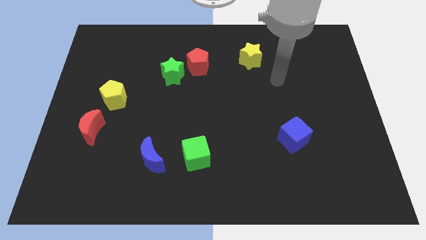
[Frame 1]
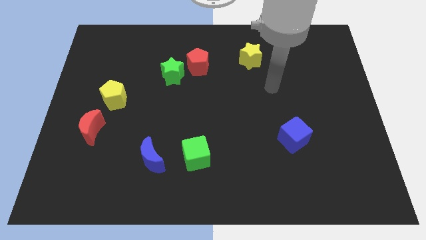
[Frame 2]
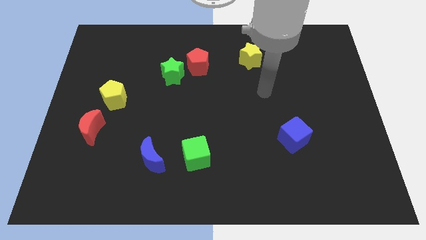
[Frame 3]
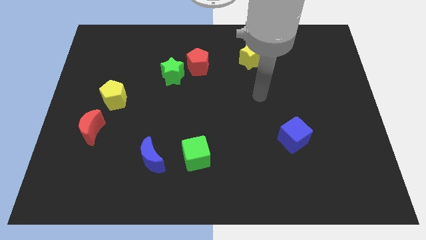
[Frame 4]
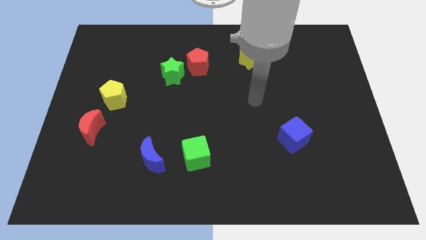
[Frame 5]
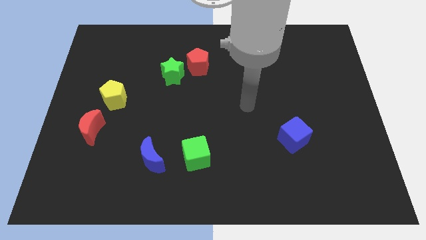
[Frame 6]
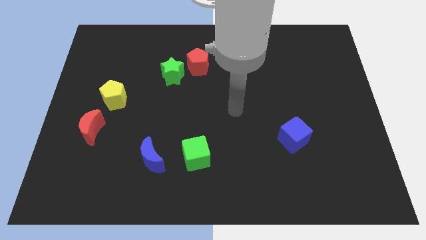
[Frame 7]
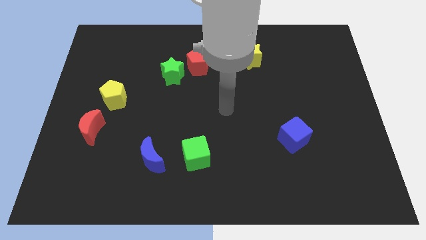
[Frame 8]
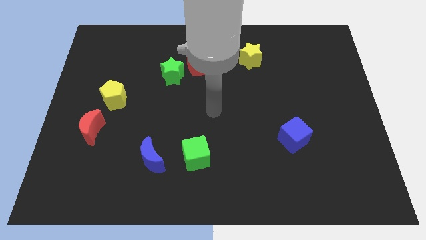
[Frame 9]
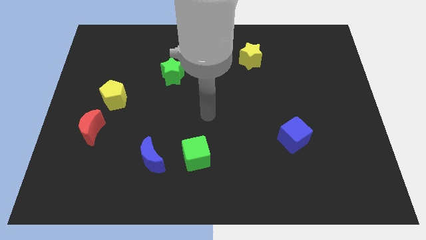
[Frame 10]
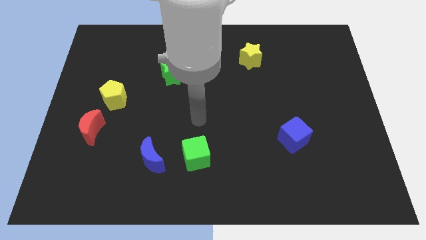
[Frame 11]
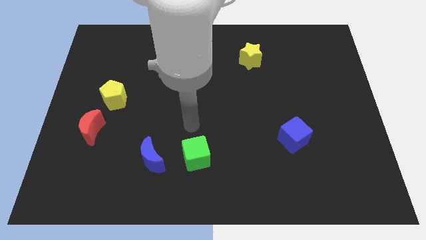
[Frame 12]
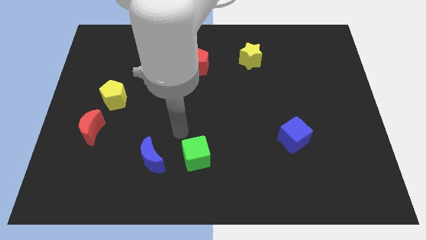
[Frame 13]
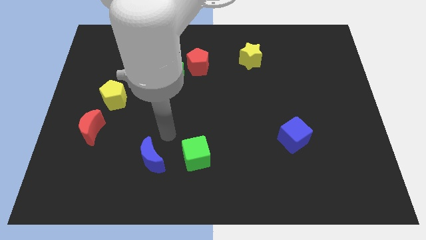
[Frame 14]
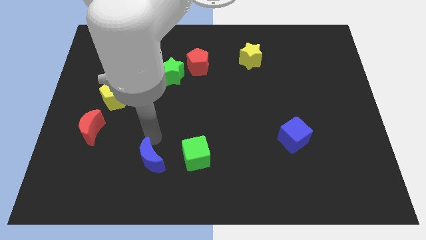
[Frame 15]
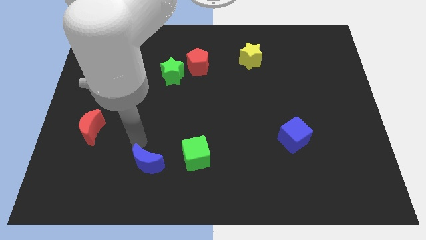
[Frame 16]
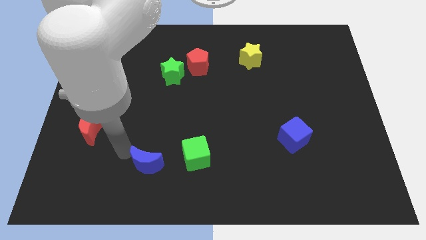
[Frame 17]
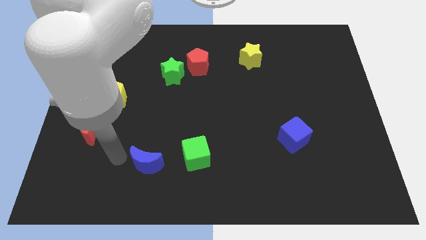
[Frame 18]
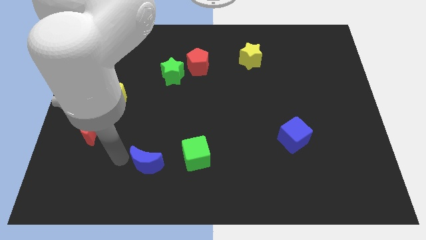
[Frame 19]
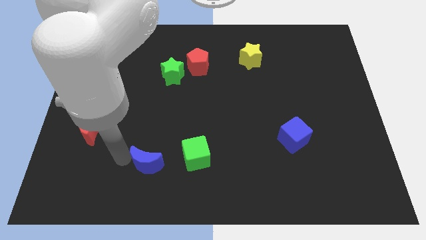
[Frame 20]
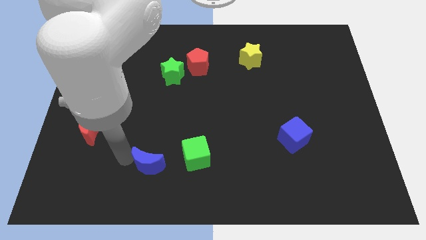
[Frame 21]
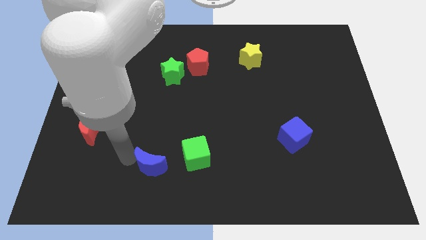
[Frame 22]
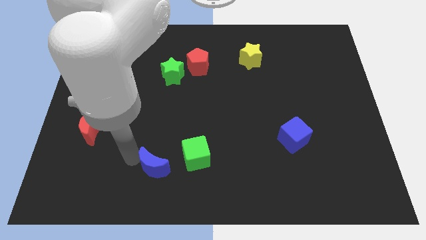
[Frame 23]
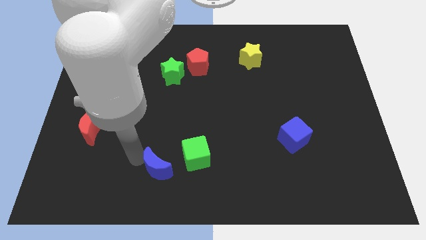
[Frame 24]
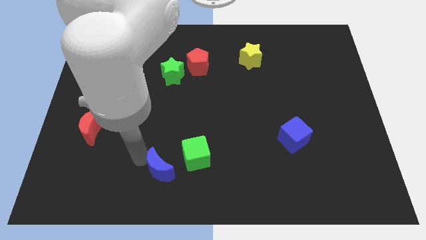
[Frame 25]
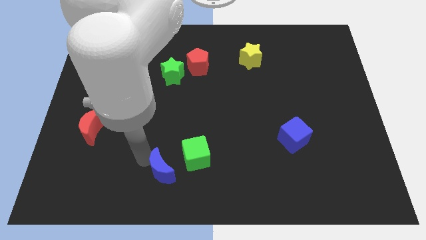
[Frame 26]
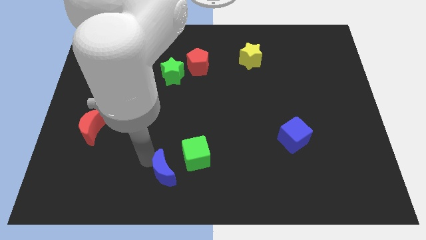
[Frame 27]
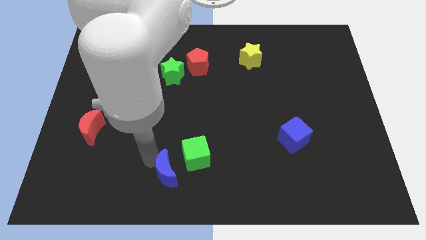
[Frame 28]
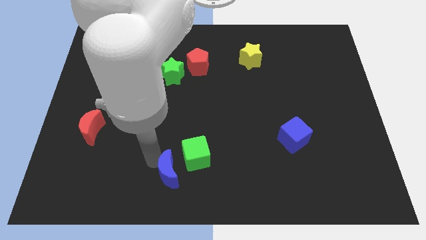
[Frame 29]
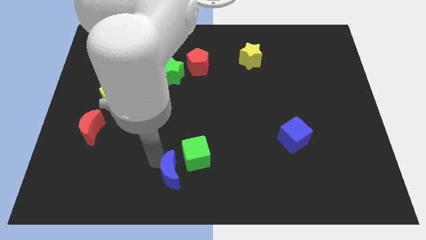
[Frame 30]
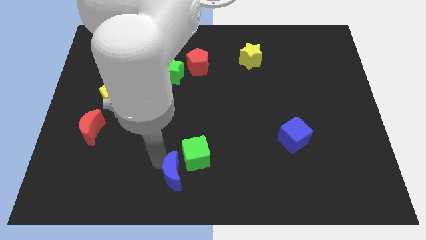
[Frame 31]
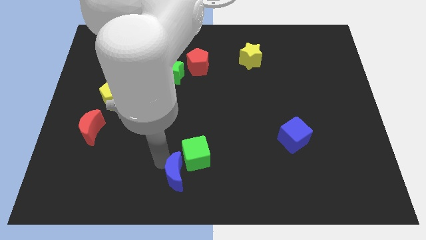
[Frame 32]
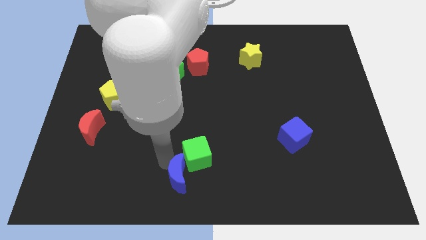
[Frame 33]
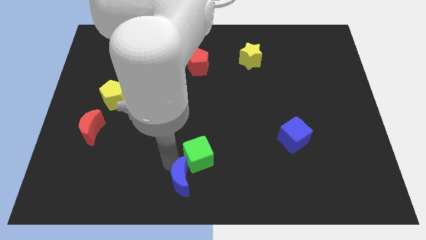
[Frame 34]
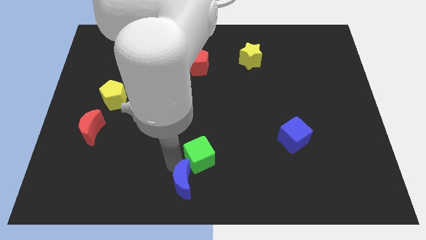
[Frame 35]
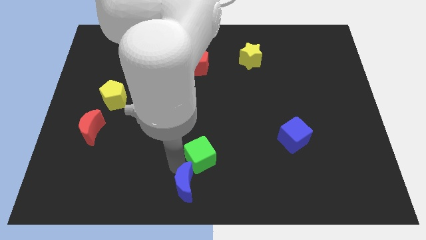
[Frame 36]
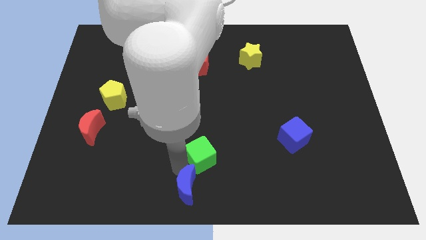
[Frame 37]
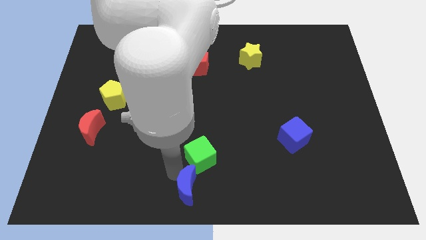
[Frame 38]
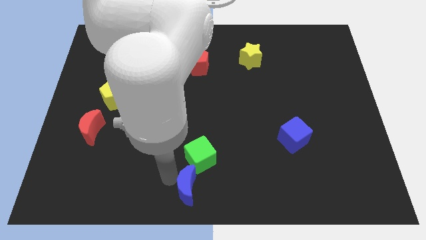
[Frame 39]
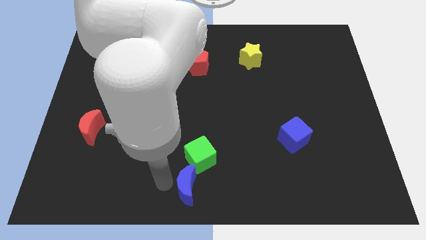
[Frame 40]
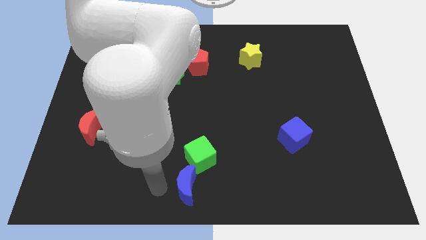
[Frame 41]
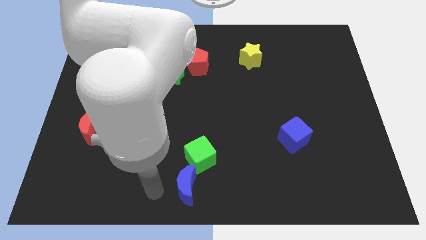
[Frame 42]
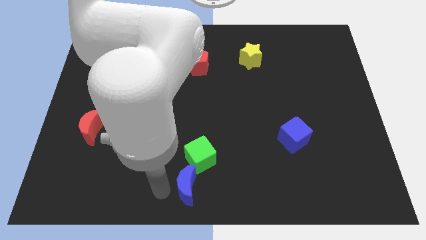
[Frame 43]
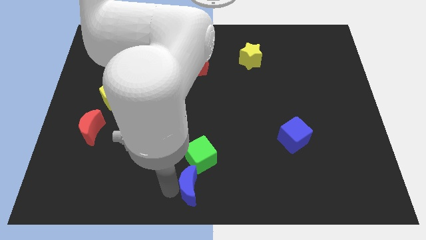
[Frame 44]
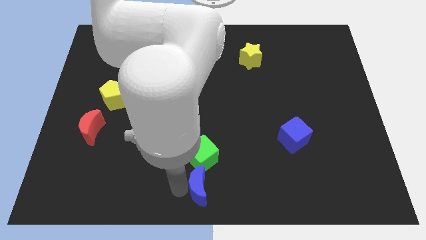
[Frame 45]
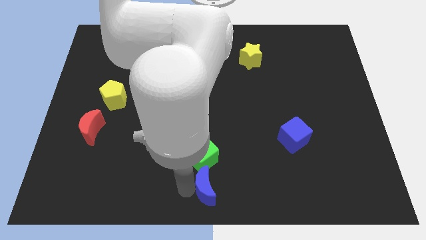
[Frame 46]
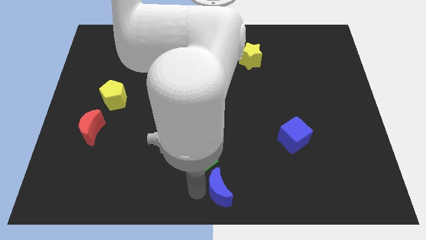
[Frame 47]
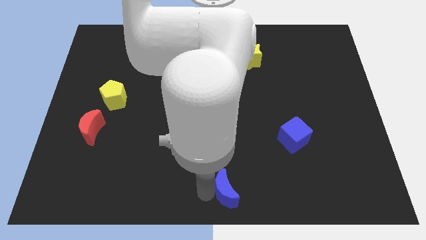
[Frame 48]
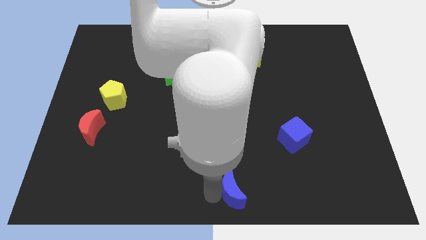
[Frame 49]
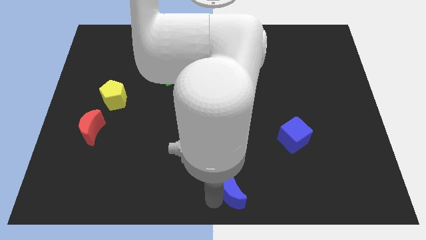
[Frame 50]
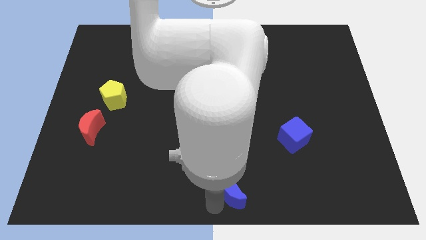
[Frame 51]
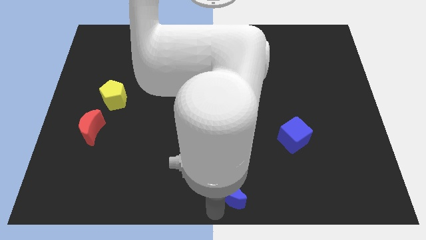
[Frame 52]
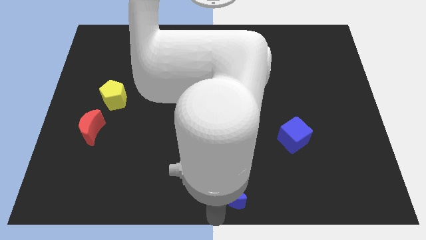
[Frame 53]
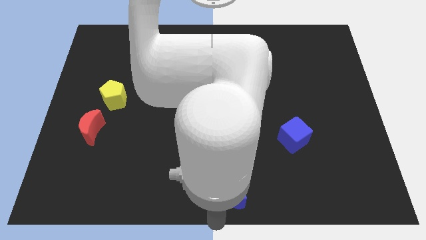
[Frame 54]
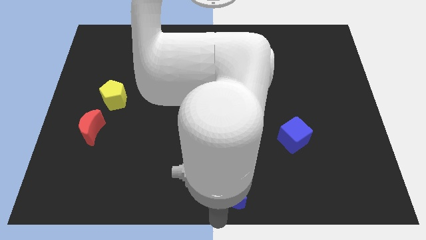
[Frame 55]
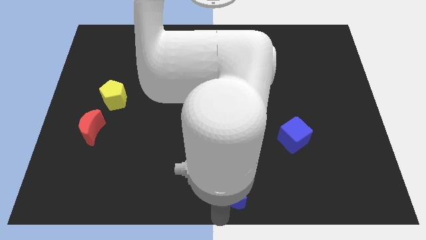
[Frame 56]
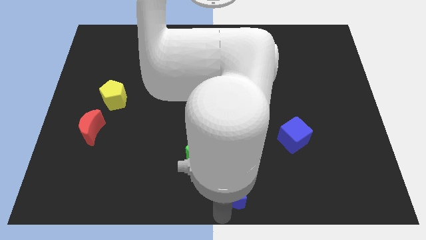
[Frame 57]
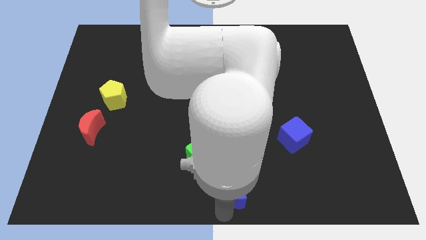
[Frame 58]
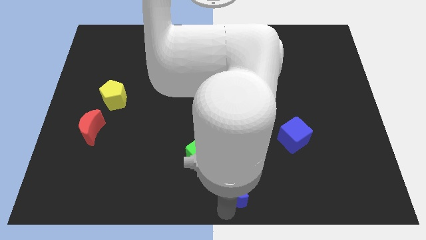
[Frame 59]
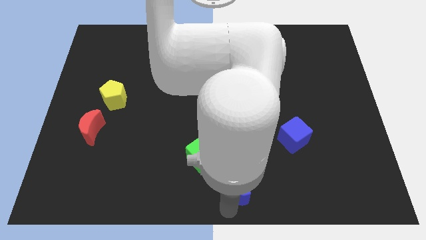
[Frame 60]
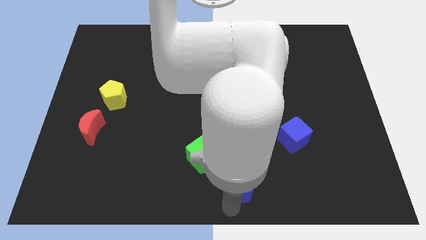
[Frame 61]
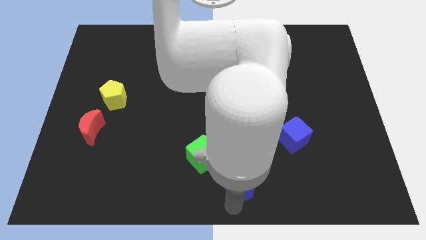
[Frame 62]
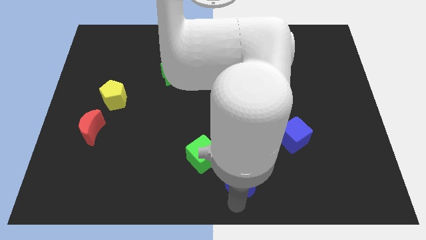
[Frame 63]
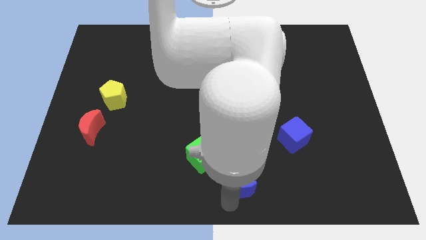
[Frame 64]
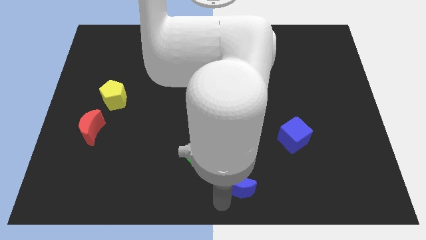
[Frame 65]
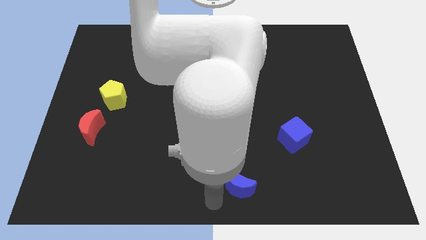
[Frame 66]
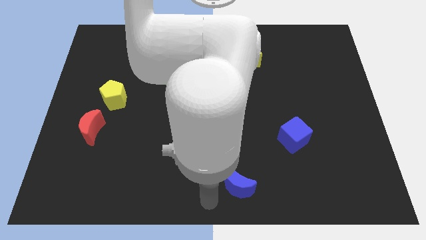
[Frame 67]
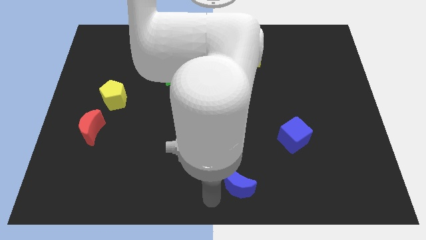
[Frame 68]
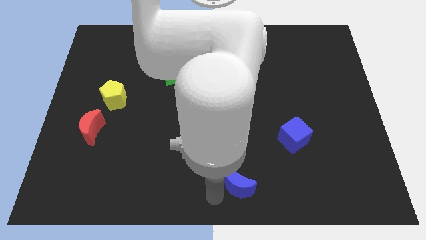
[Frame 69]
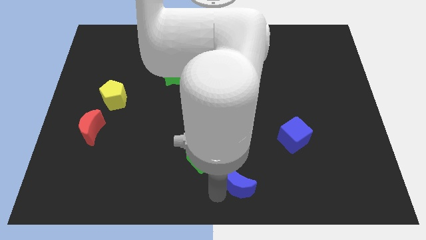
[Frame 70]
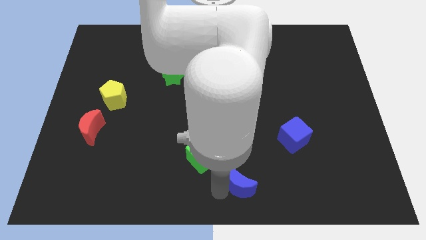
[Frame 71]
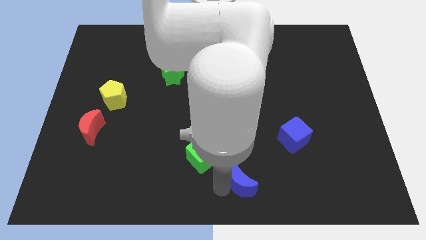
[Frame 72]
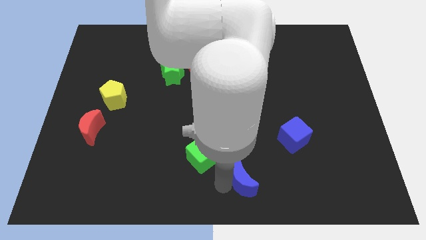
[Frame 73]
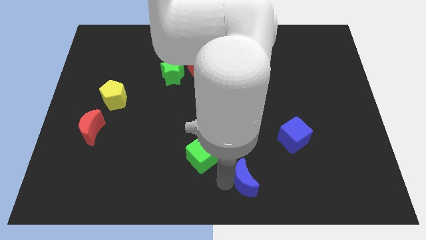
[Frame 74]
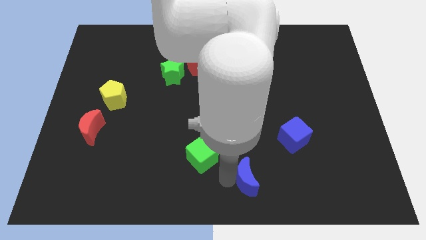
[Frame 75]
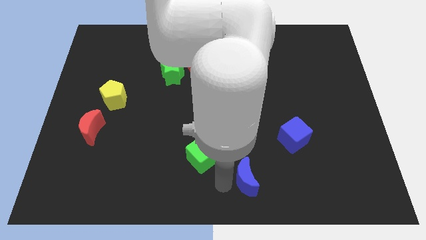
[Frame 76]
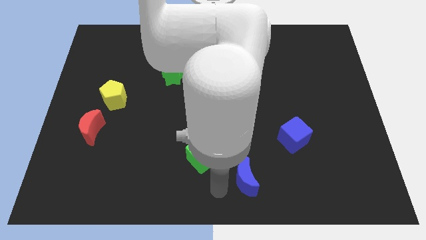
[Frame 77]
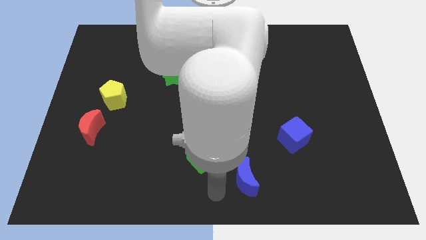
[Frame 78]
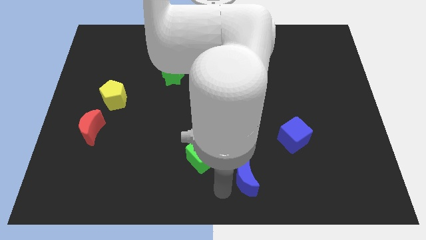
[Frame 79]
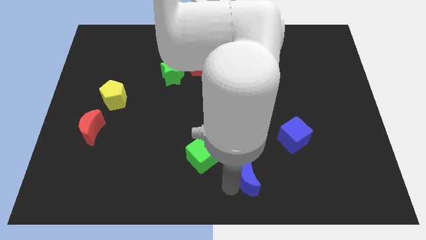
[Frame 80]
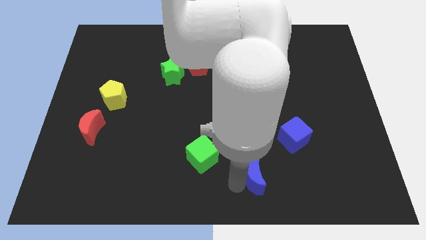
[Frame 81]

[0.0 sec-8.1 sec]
slide the blue moon right
